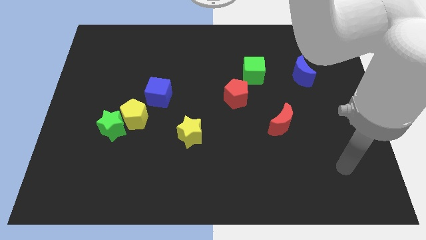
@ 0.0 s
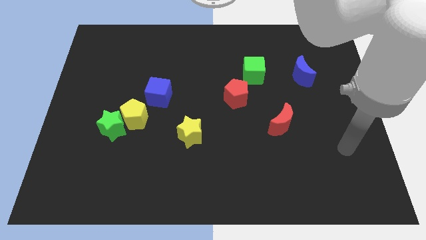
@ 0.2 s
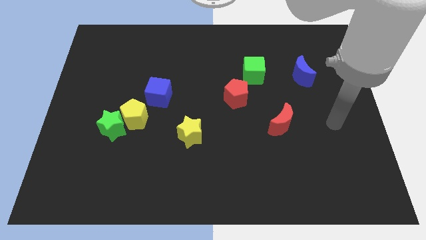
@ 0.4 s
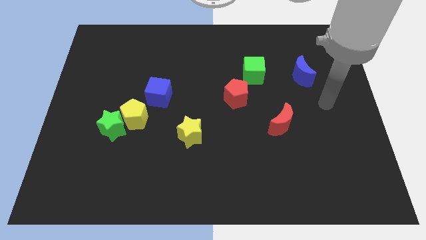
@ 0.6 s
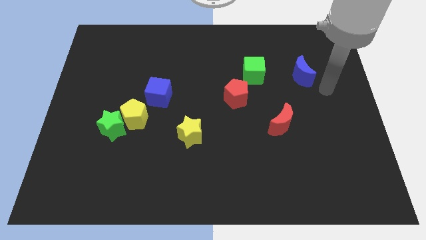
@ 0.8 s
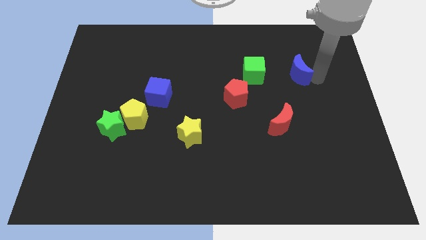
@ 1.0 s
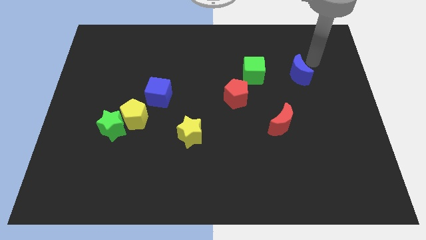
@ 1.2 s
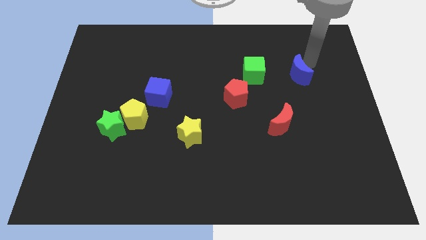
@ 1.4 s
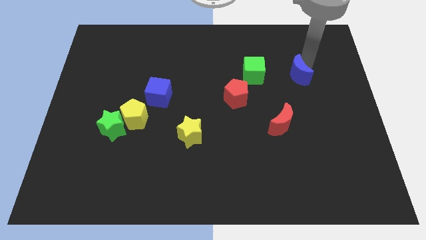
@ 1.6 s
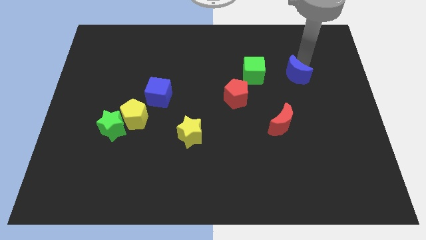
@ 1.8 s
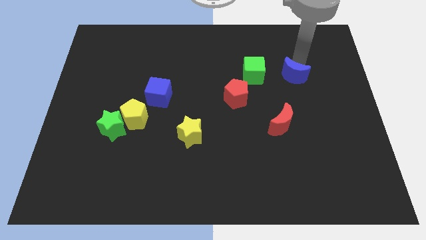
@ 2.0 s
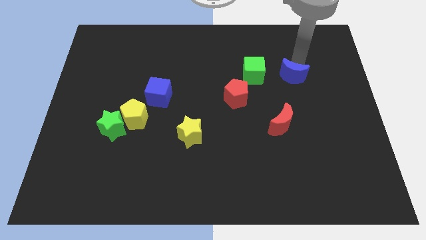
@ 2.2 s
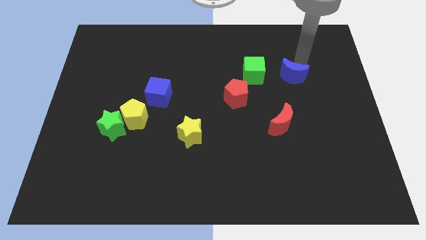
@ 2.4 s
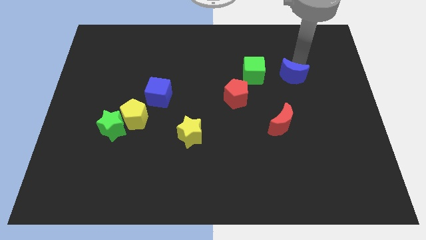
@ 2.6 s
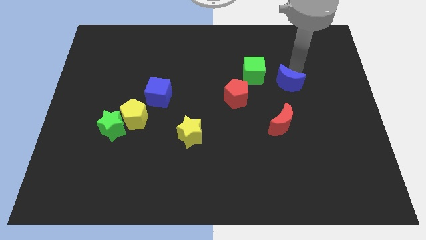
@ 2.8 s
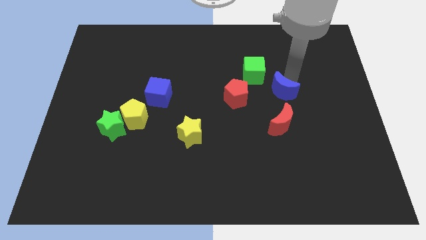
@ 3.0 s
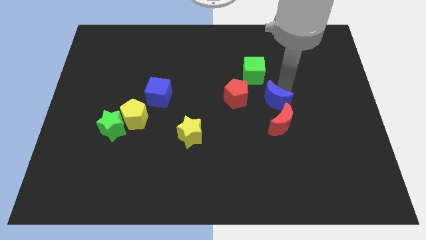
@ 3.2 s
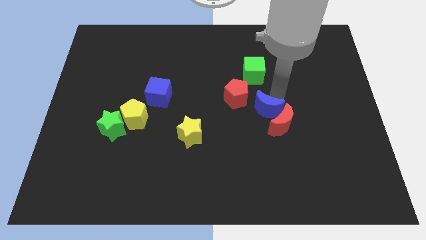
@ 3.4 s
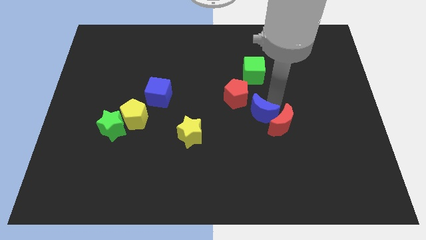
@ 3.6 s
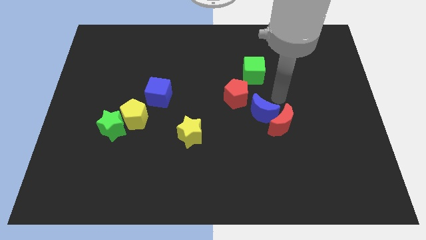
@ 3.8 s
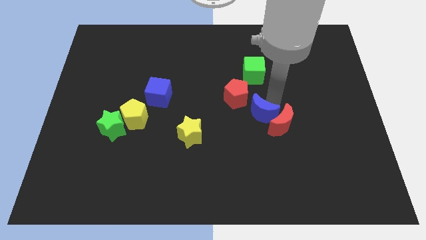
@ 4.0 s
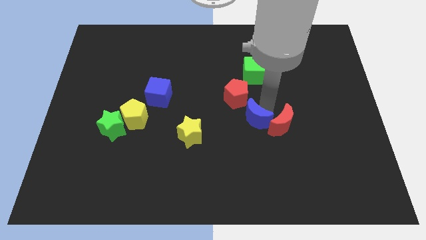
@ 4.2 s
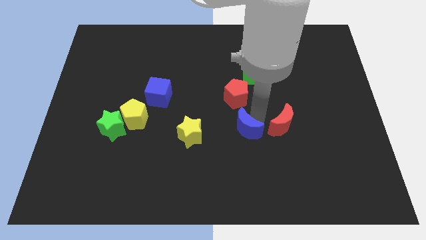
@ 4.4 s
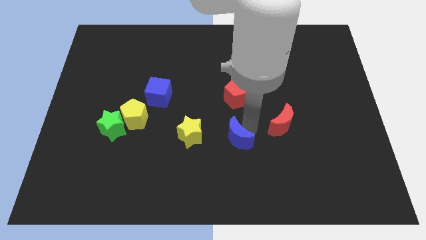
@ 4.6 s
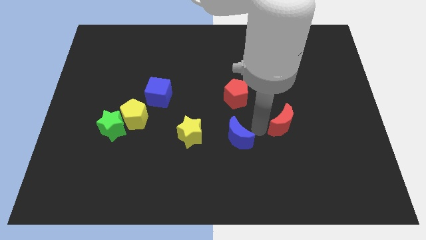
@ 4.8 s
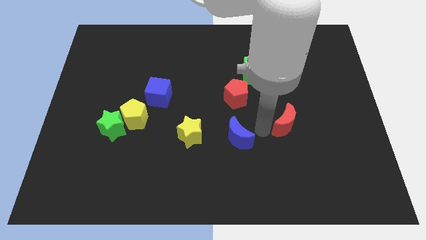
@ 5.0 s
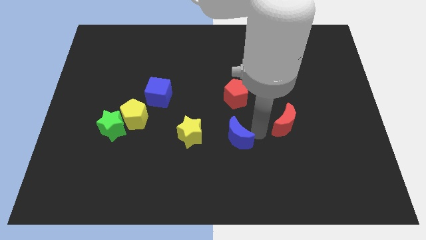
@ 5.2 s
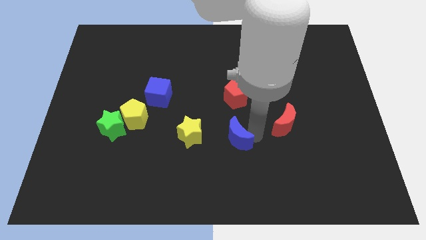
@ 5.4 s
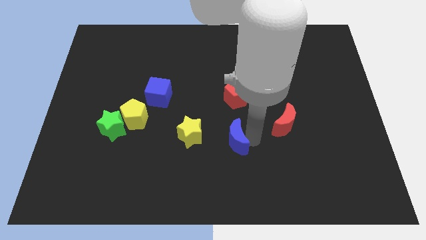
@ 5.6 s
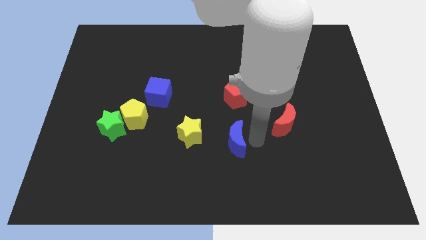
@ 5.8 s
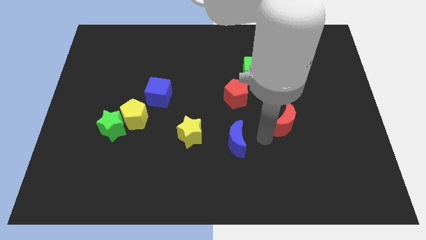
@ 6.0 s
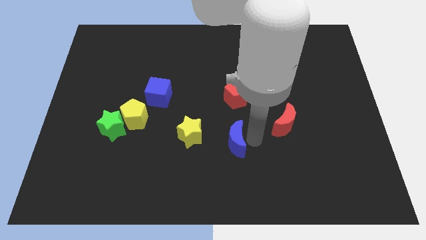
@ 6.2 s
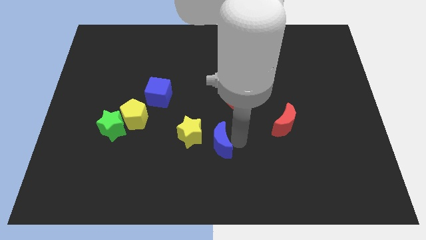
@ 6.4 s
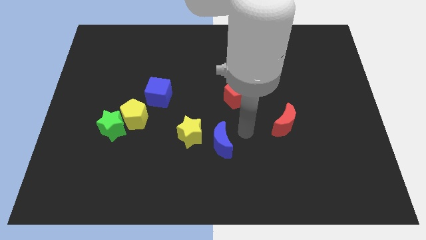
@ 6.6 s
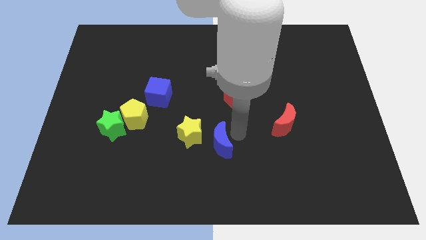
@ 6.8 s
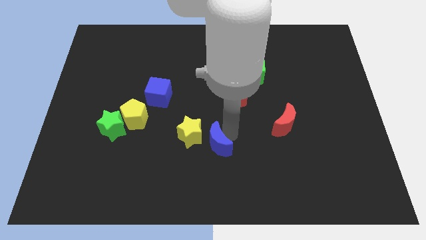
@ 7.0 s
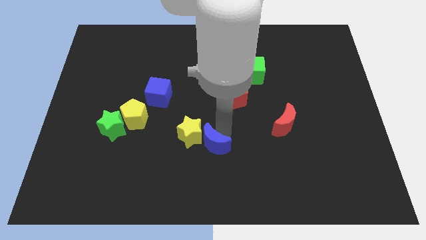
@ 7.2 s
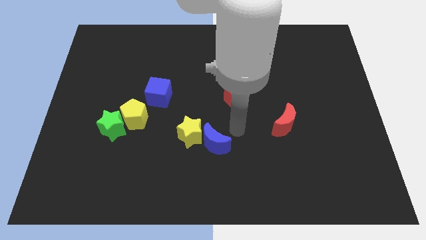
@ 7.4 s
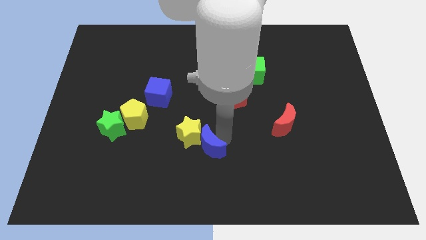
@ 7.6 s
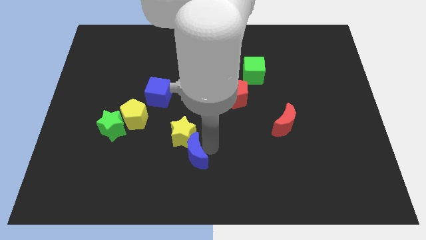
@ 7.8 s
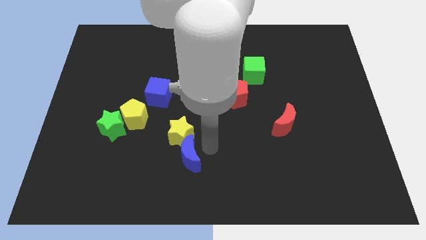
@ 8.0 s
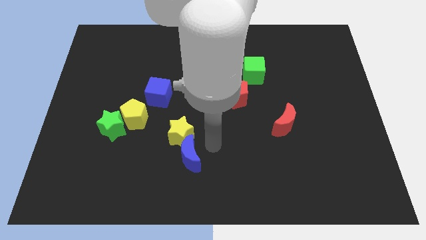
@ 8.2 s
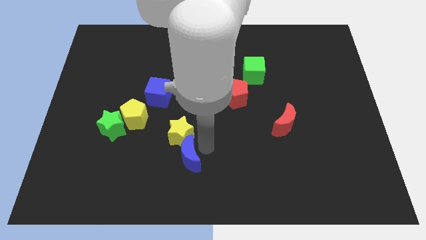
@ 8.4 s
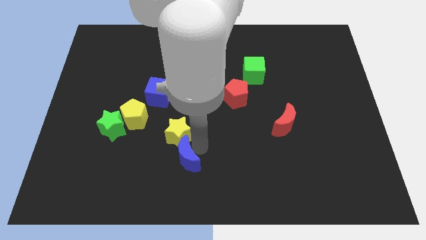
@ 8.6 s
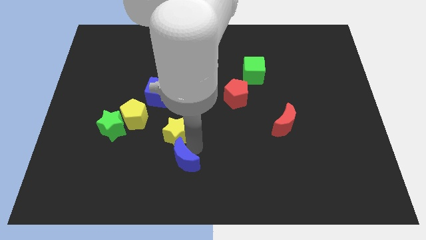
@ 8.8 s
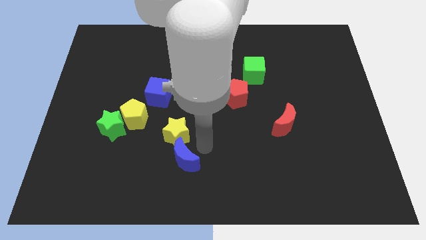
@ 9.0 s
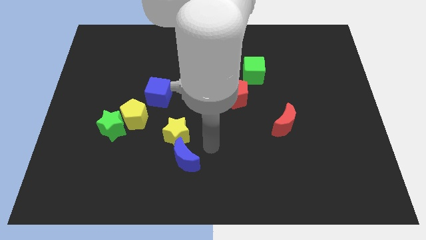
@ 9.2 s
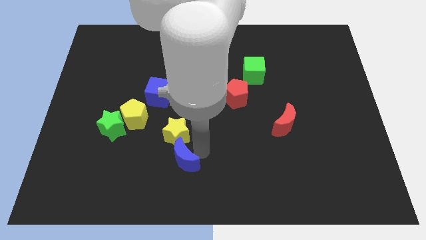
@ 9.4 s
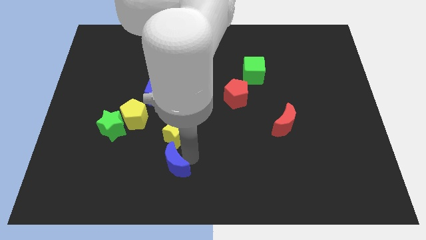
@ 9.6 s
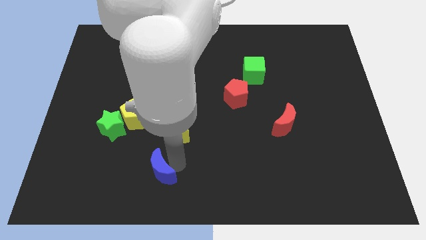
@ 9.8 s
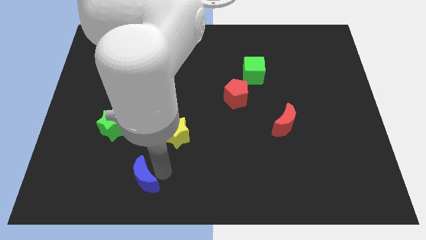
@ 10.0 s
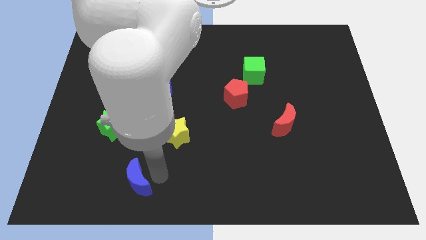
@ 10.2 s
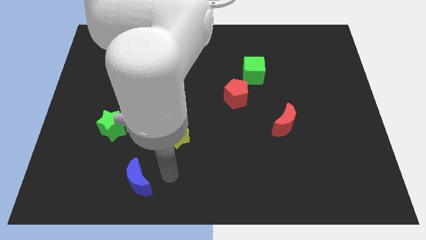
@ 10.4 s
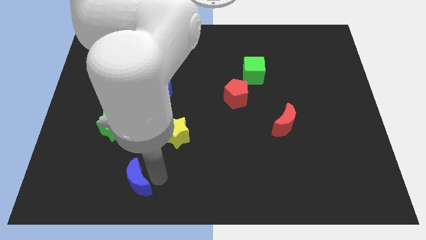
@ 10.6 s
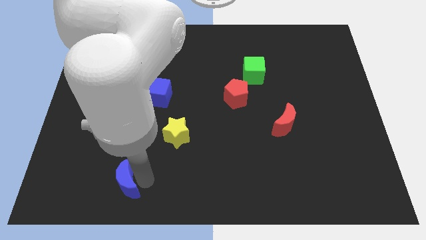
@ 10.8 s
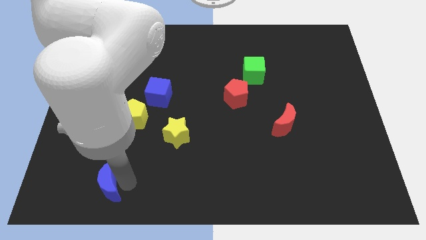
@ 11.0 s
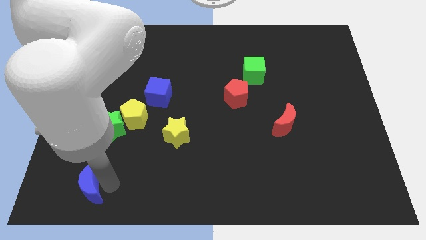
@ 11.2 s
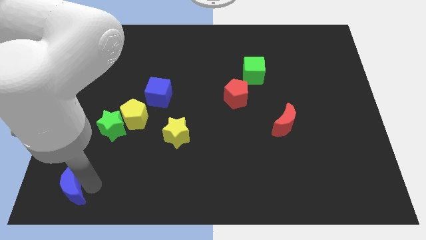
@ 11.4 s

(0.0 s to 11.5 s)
move the blue moon to the bottom left corner
